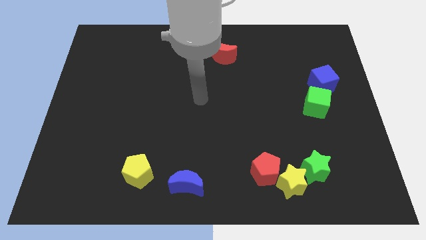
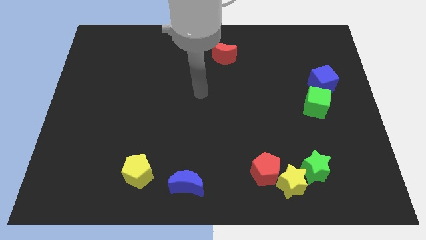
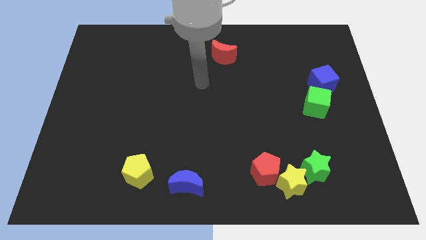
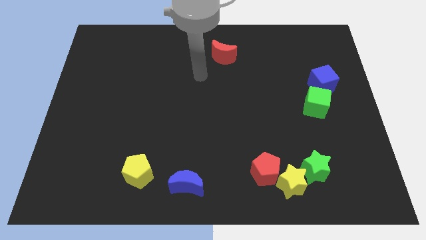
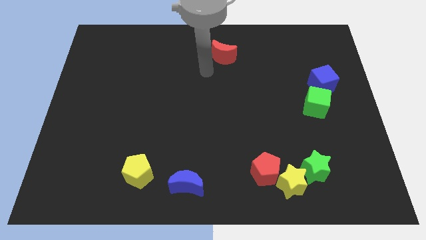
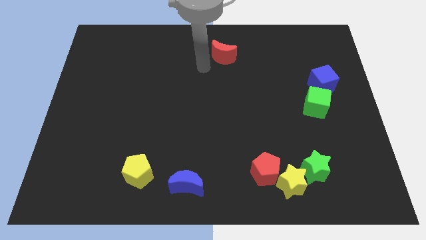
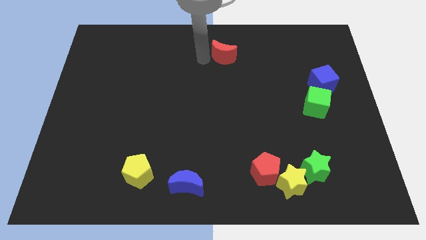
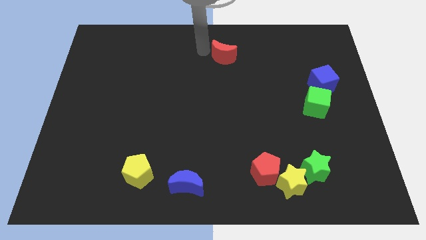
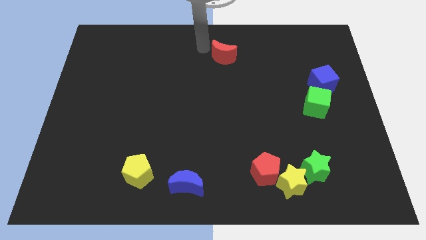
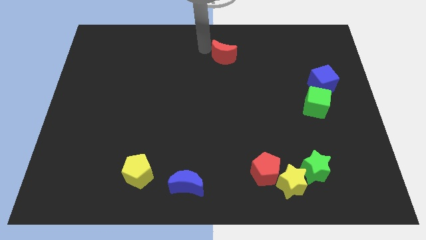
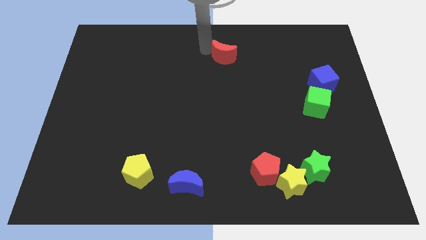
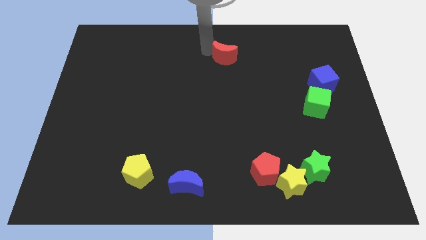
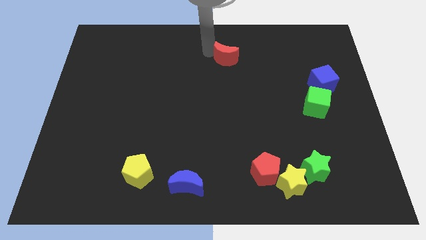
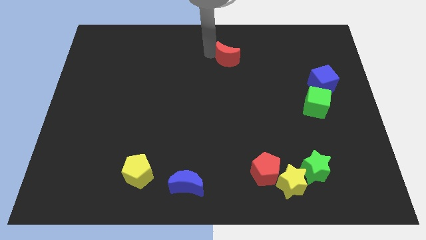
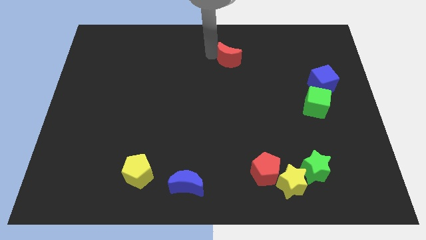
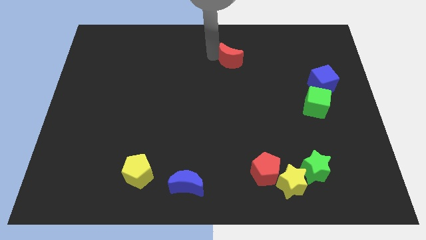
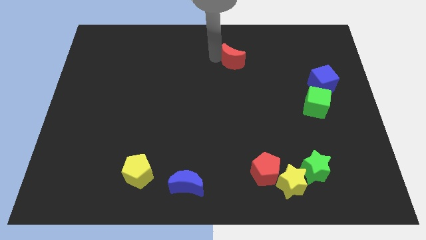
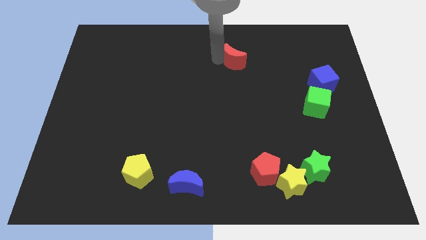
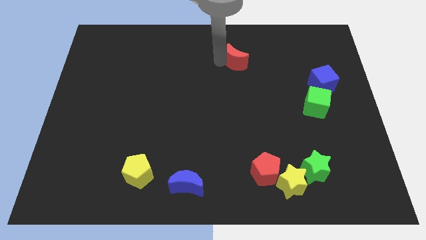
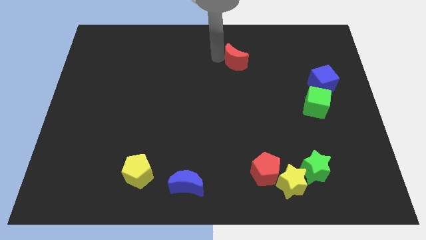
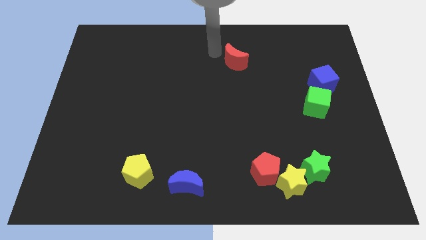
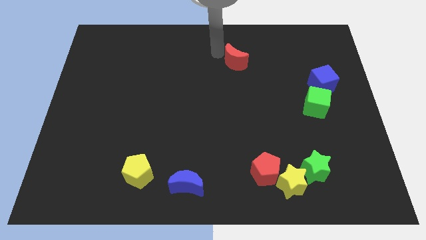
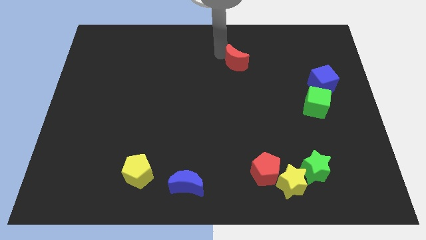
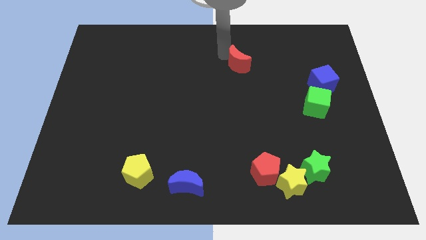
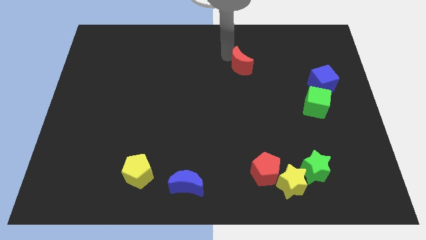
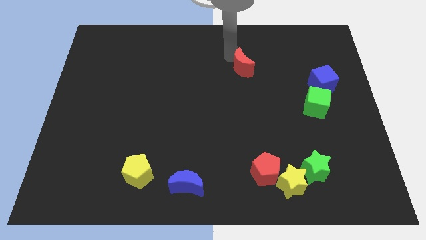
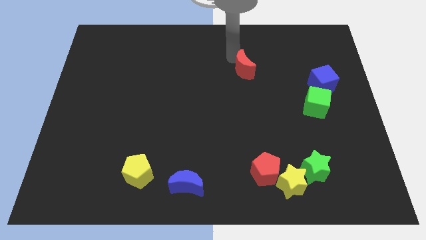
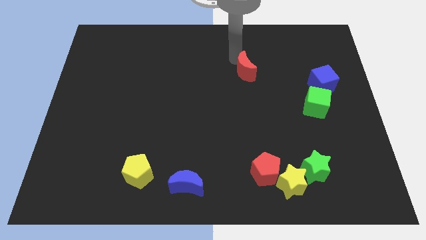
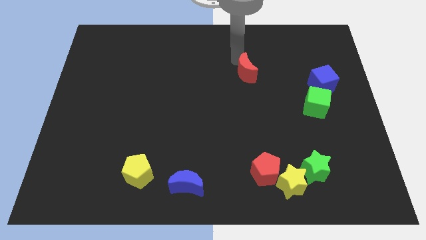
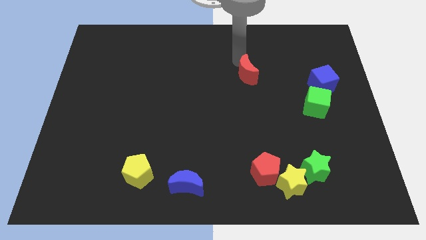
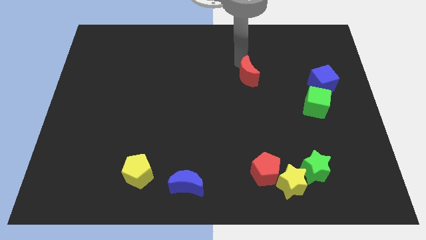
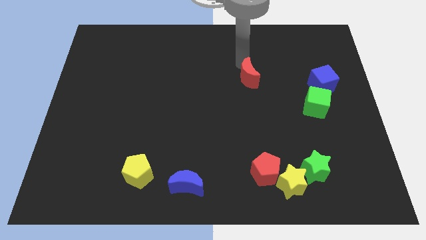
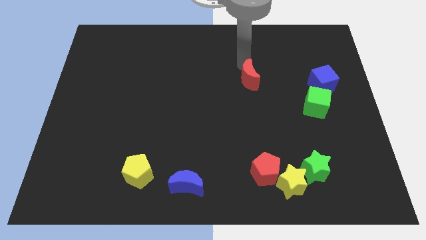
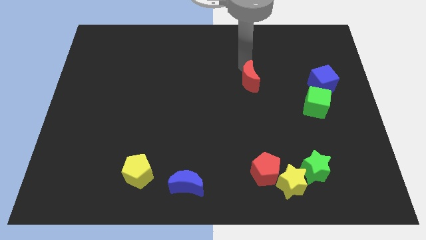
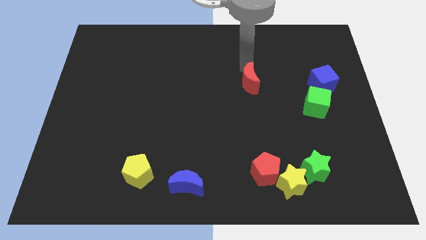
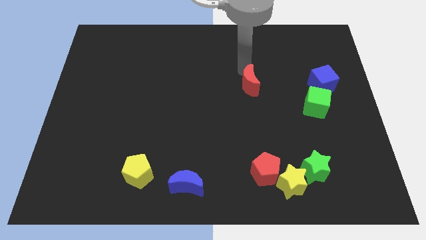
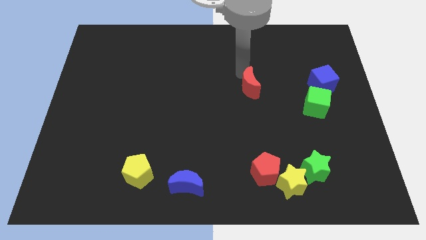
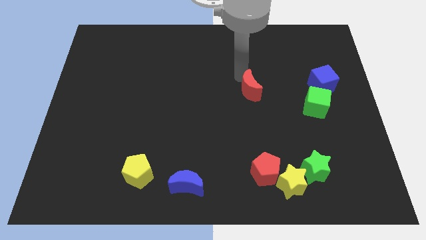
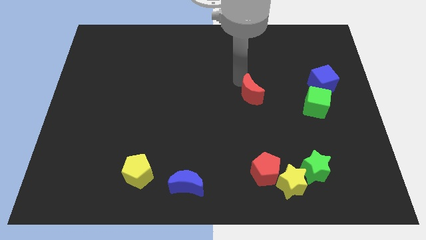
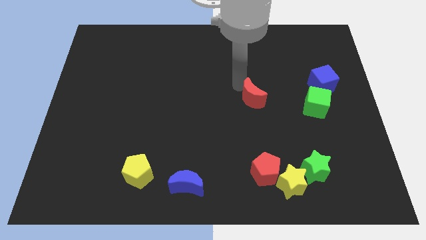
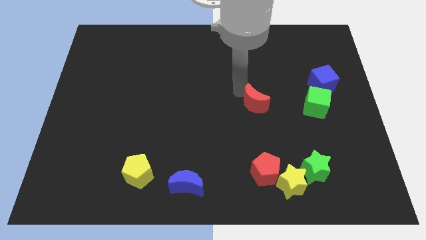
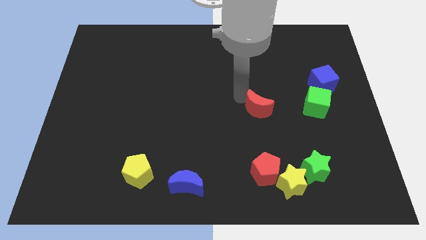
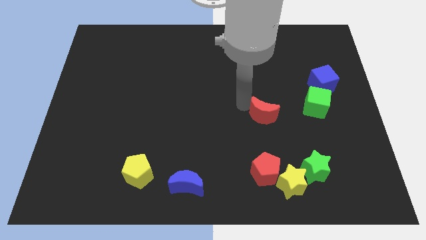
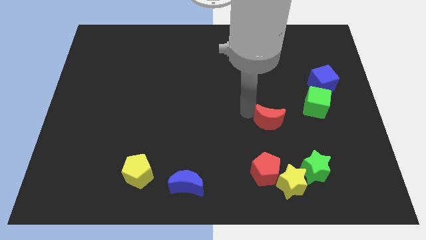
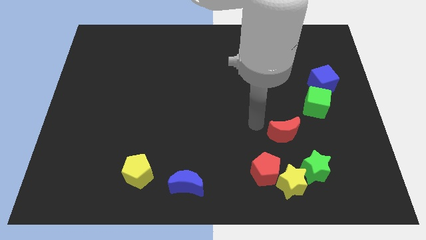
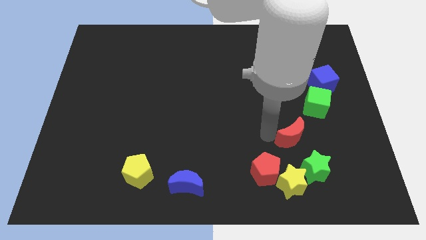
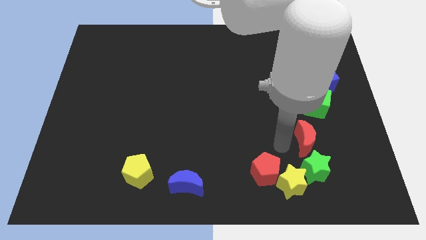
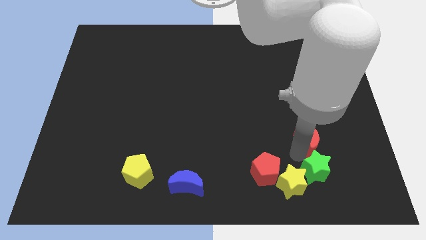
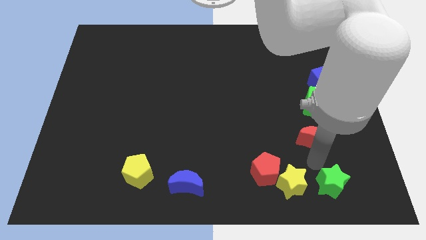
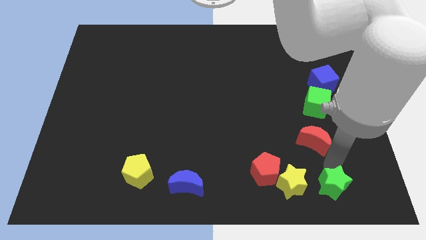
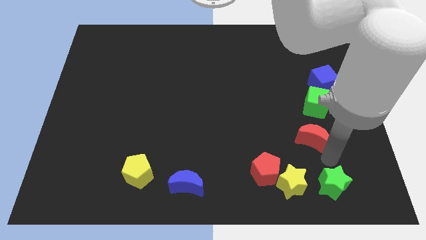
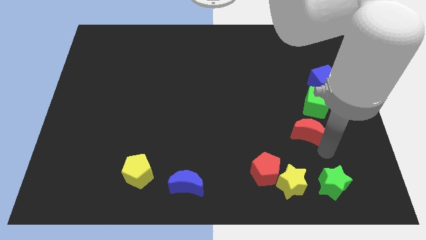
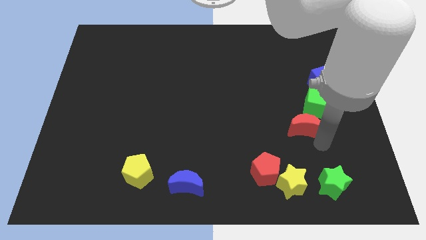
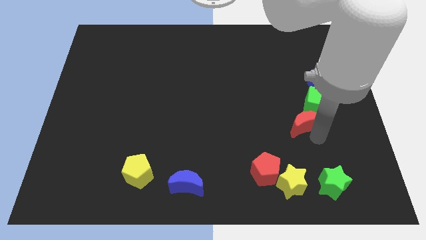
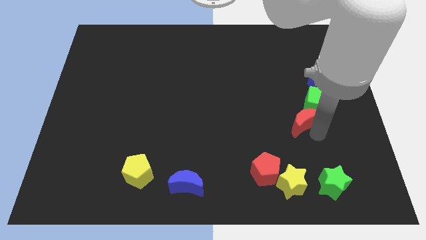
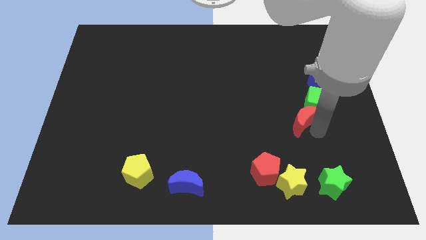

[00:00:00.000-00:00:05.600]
push the red moon next to the green cube

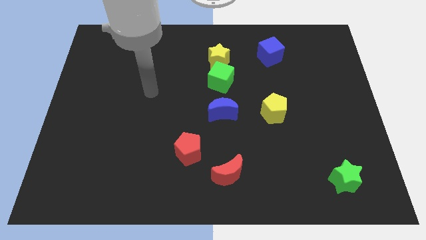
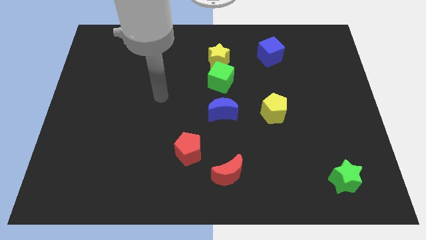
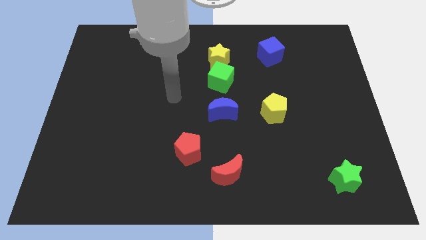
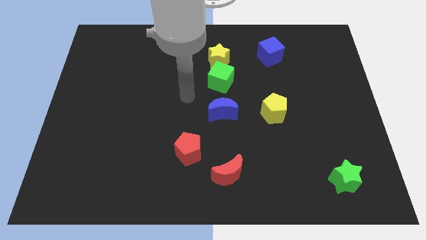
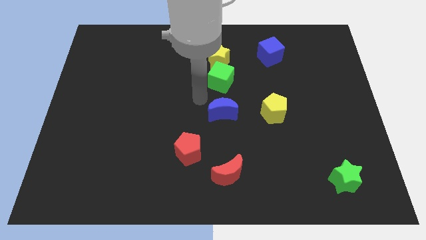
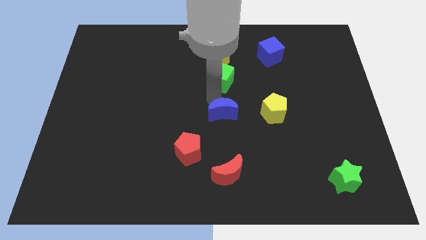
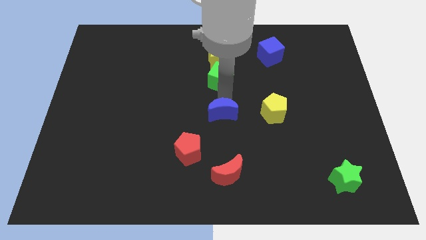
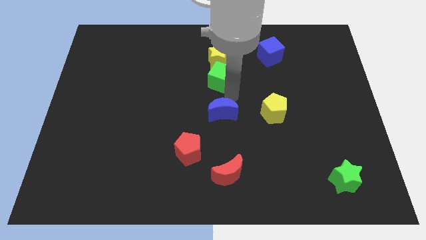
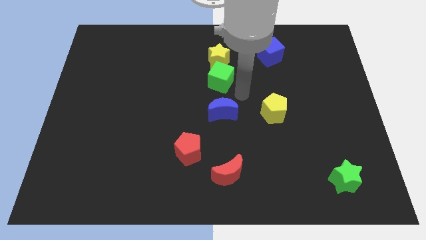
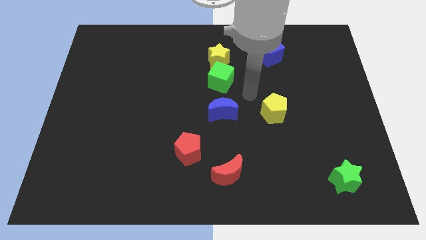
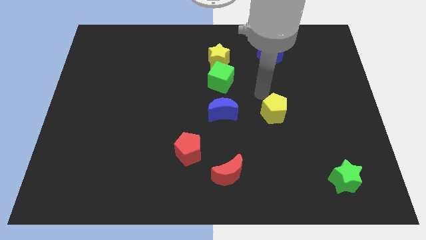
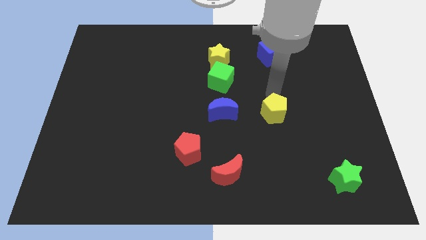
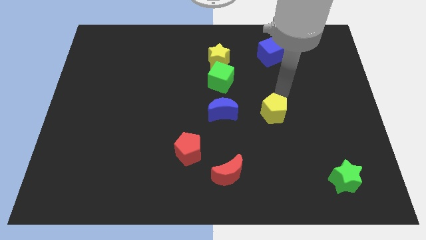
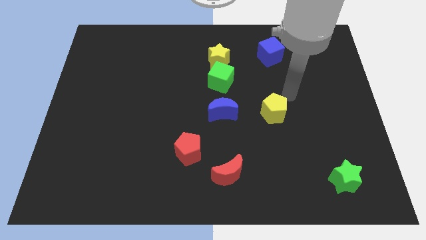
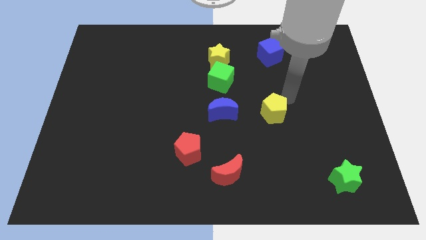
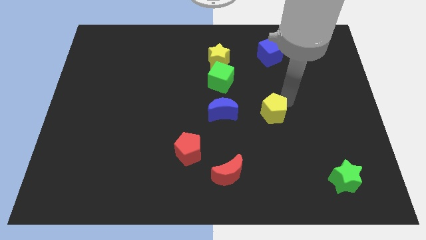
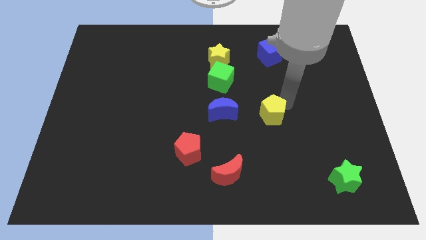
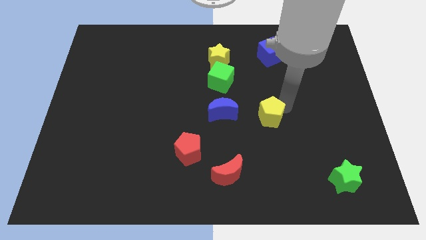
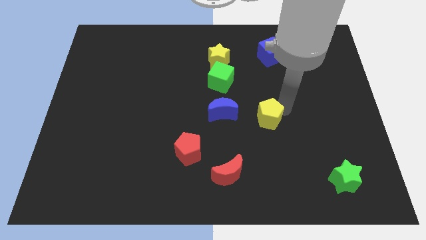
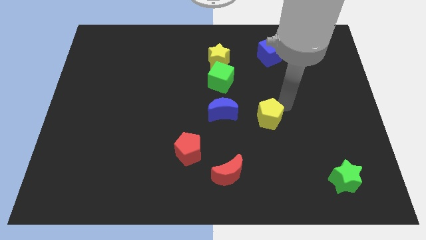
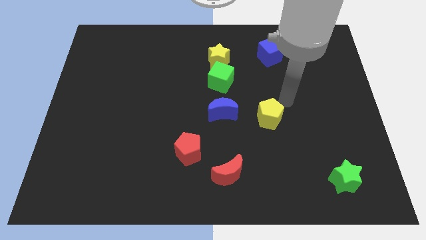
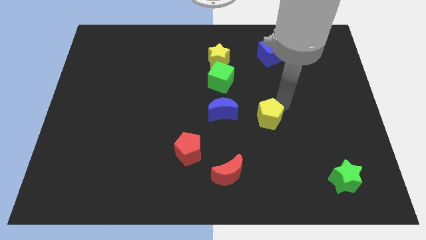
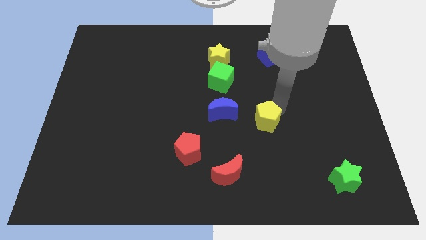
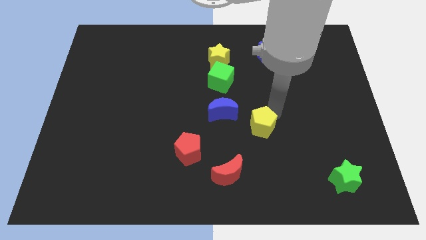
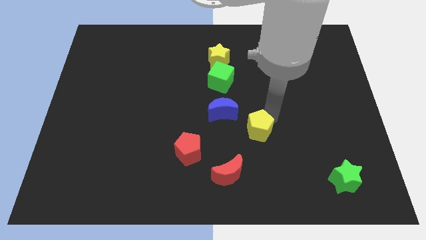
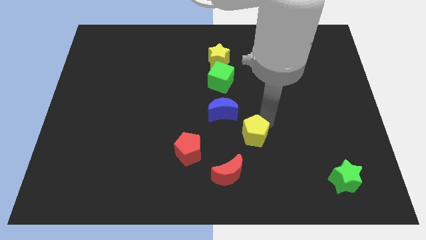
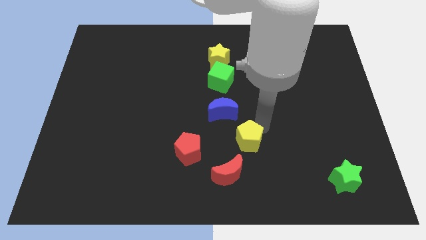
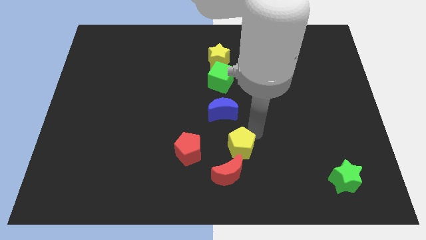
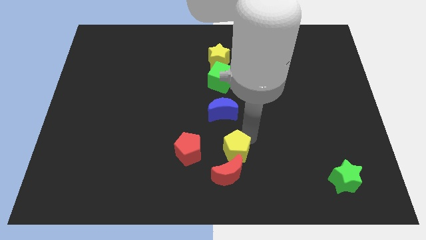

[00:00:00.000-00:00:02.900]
slide the yellow pentagon close to the red moon
